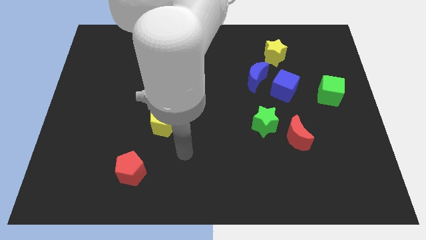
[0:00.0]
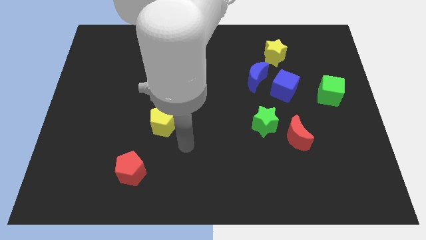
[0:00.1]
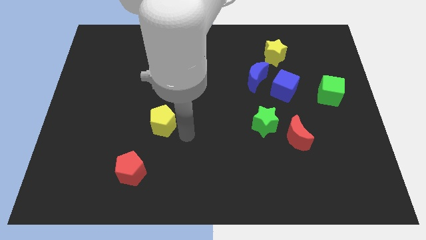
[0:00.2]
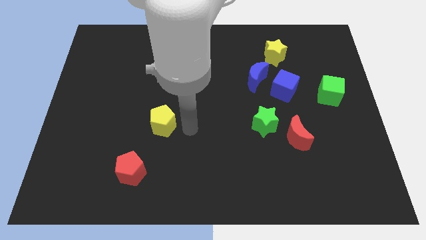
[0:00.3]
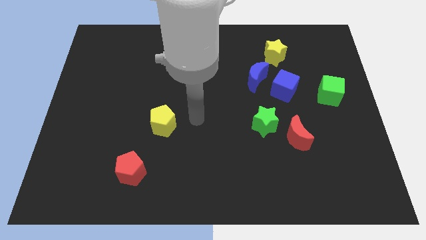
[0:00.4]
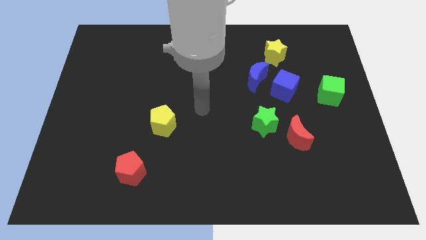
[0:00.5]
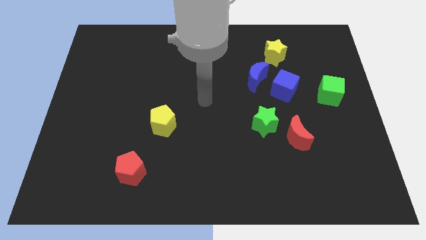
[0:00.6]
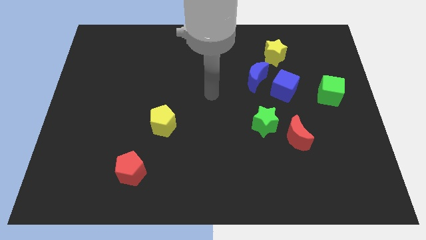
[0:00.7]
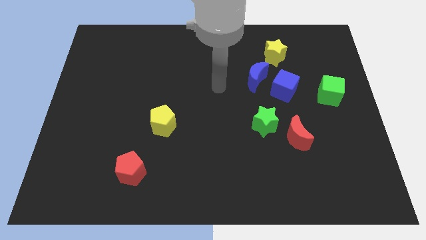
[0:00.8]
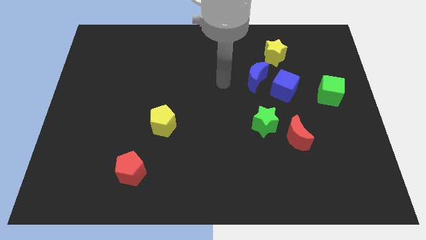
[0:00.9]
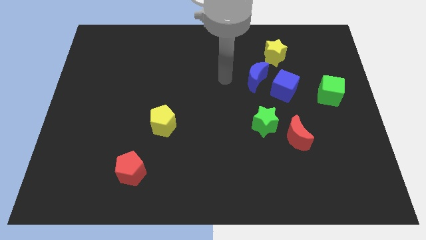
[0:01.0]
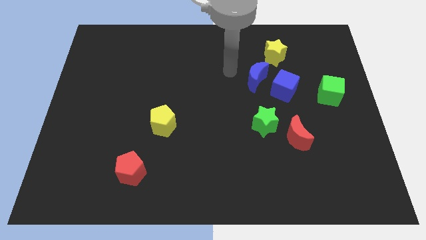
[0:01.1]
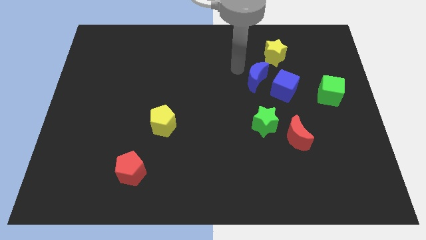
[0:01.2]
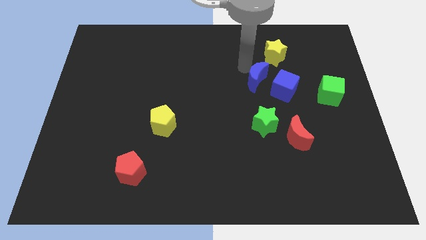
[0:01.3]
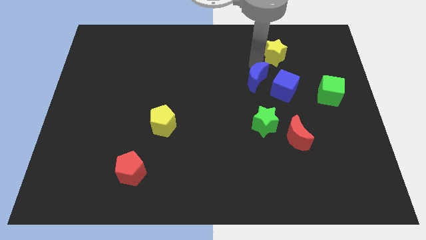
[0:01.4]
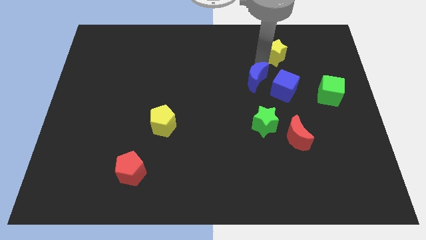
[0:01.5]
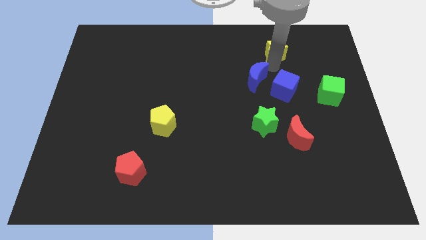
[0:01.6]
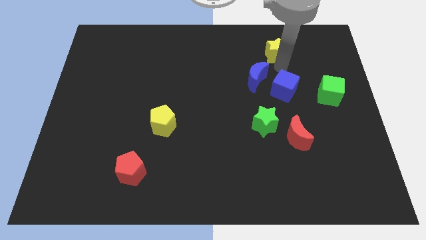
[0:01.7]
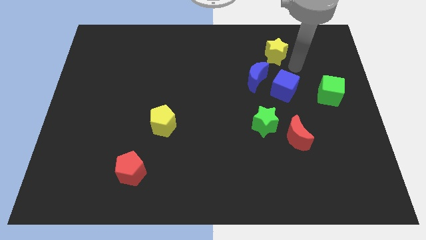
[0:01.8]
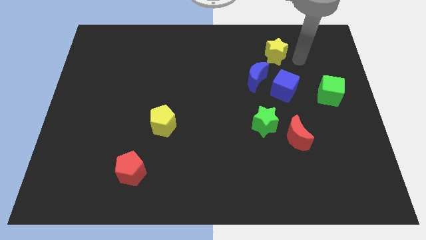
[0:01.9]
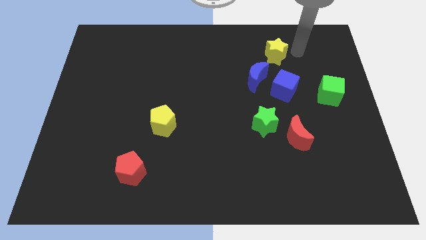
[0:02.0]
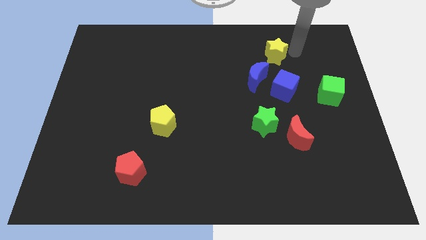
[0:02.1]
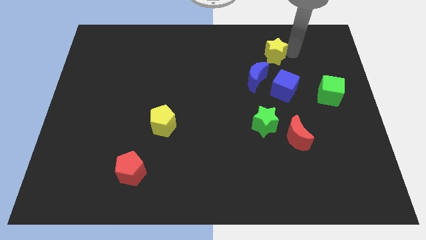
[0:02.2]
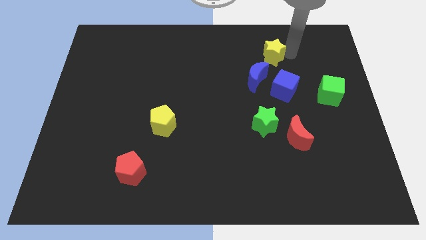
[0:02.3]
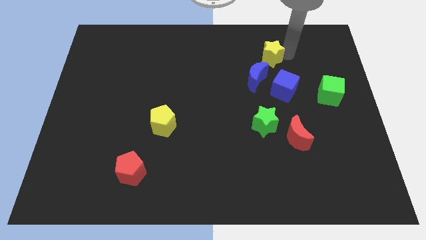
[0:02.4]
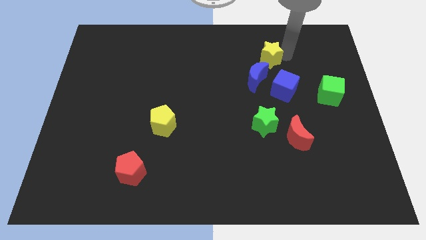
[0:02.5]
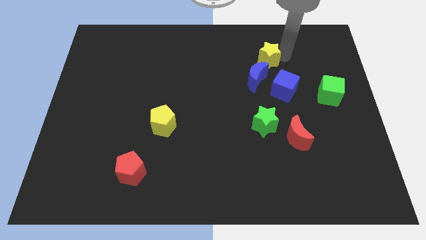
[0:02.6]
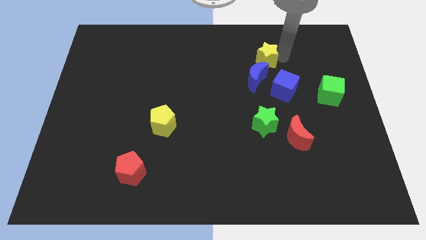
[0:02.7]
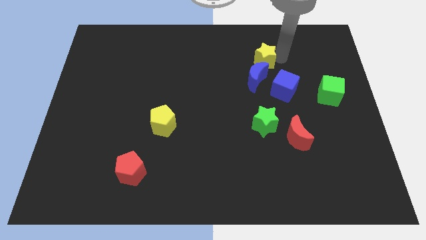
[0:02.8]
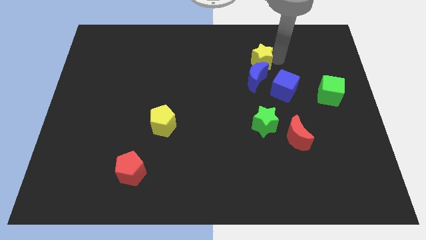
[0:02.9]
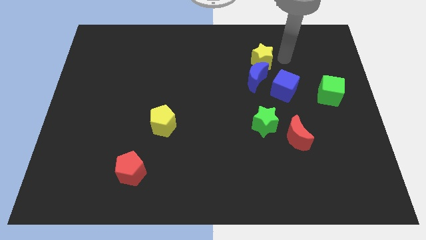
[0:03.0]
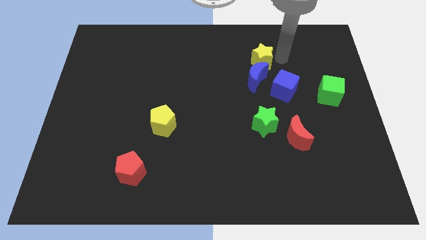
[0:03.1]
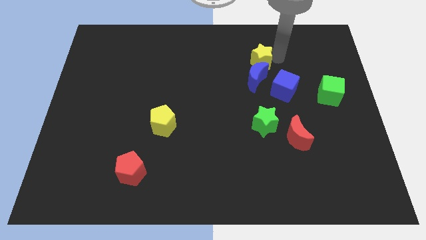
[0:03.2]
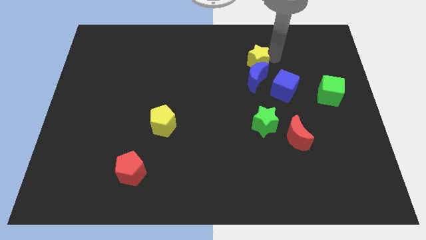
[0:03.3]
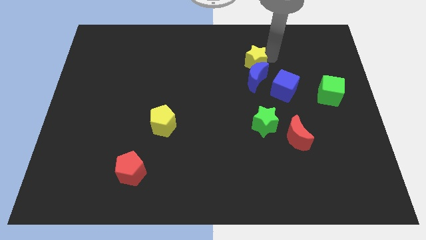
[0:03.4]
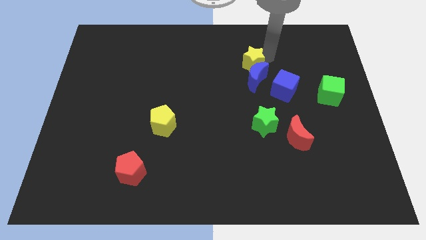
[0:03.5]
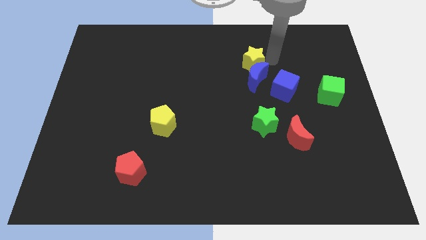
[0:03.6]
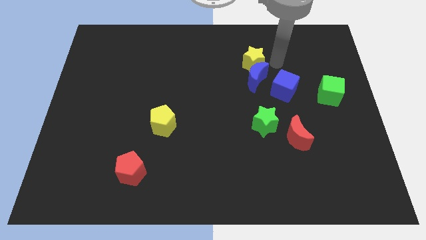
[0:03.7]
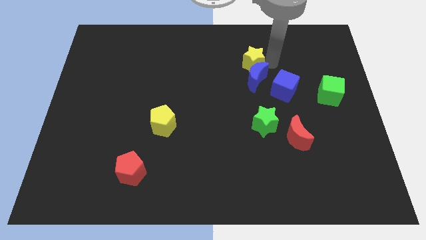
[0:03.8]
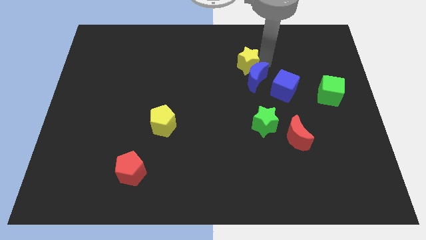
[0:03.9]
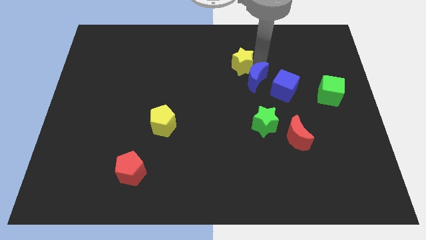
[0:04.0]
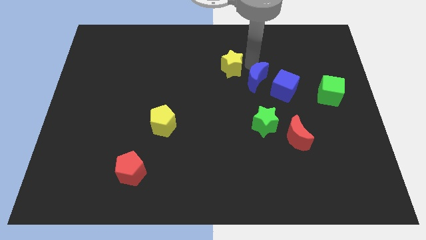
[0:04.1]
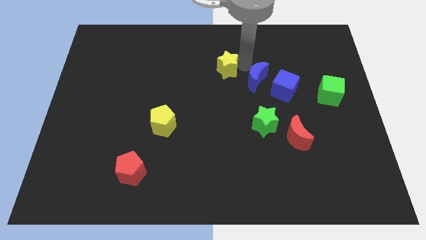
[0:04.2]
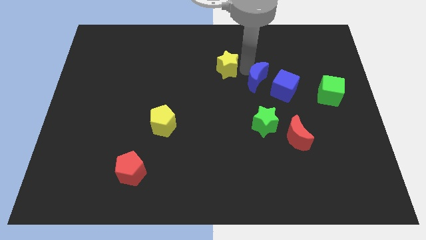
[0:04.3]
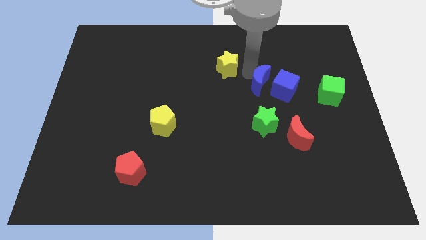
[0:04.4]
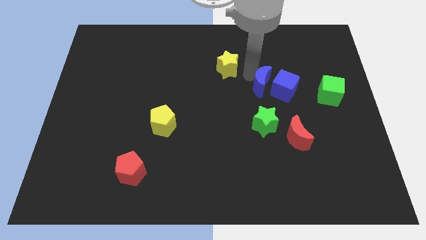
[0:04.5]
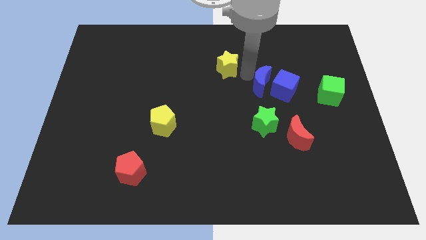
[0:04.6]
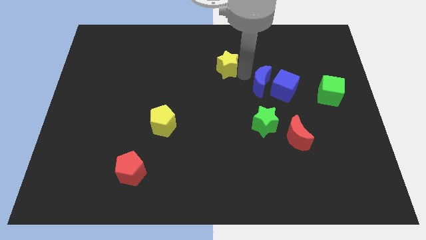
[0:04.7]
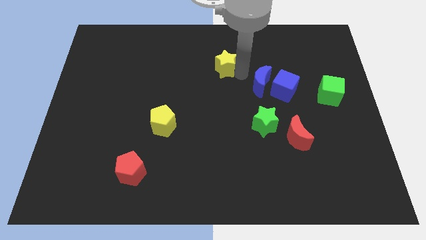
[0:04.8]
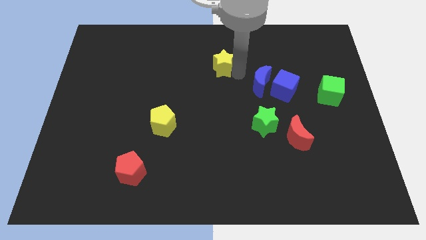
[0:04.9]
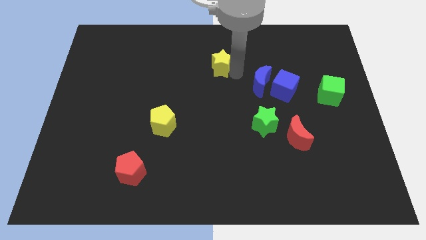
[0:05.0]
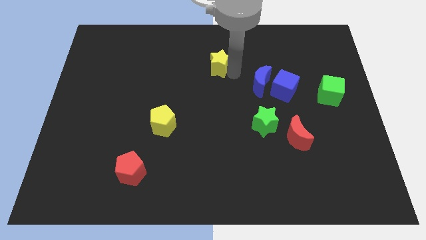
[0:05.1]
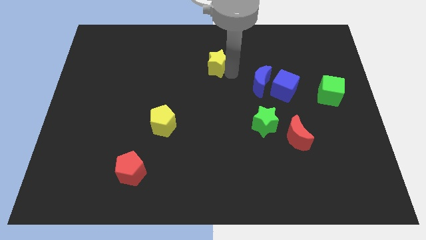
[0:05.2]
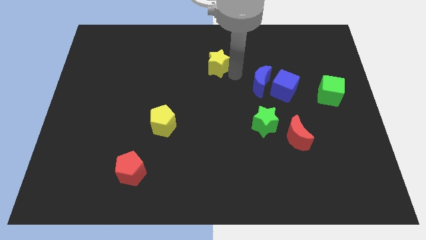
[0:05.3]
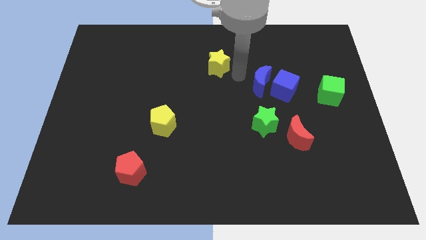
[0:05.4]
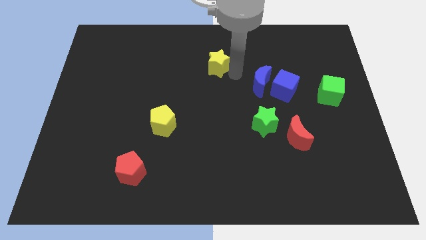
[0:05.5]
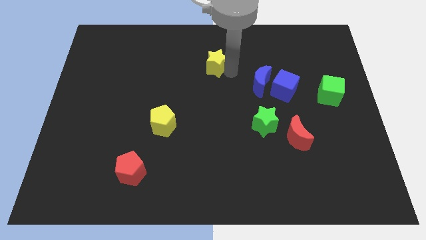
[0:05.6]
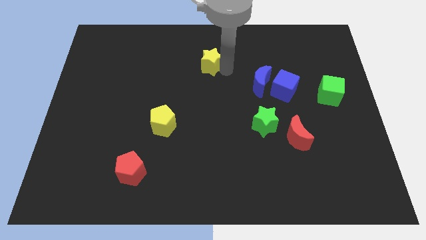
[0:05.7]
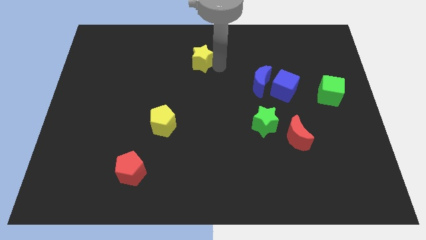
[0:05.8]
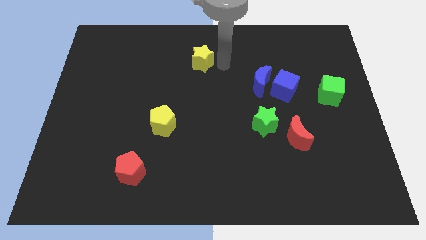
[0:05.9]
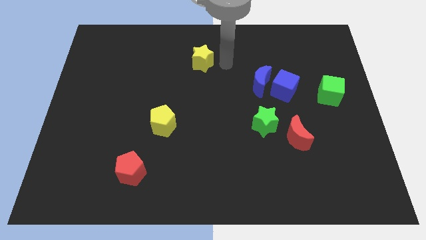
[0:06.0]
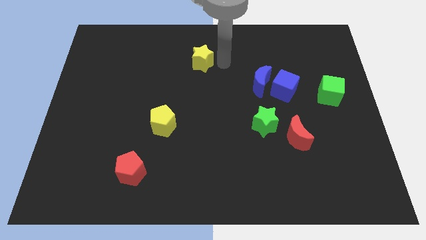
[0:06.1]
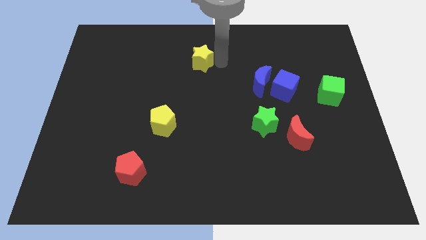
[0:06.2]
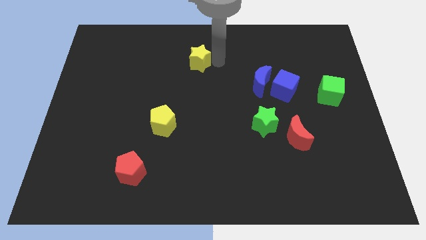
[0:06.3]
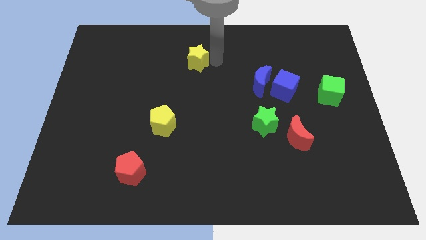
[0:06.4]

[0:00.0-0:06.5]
slide the yellow star left

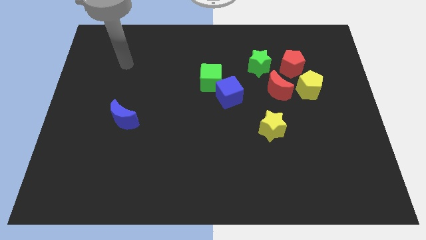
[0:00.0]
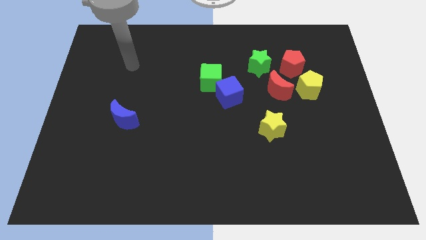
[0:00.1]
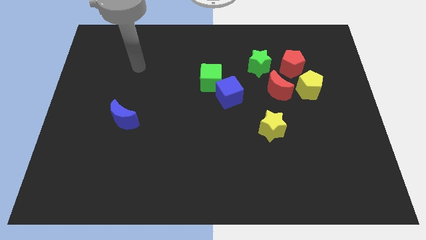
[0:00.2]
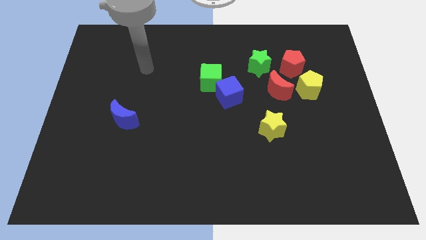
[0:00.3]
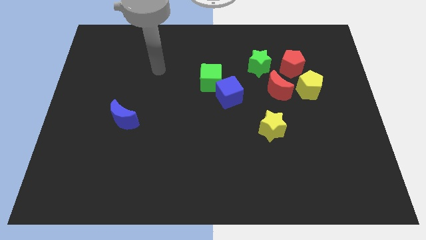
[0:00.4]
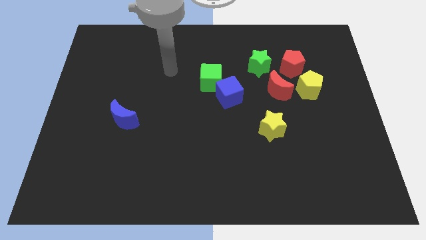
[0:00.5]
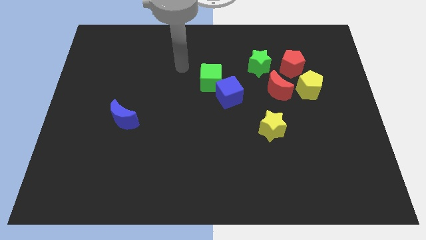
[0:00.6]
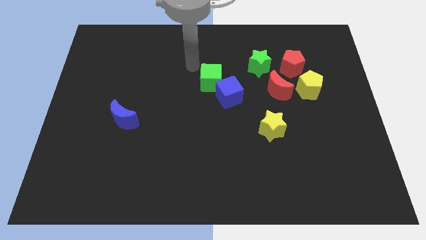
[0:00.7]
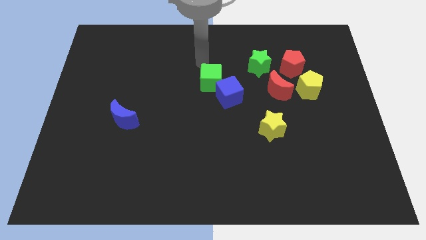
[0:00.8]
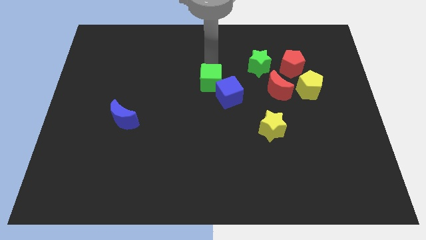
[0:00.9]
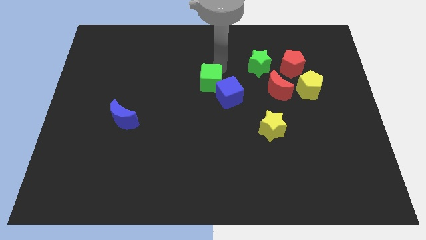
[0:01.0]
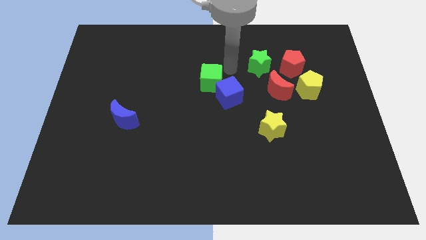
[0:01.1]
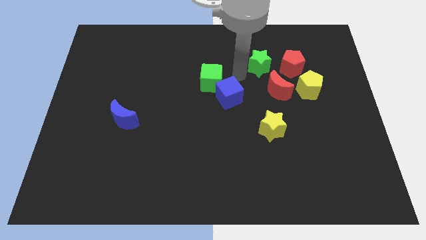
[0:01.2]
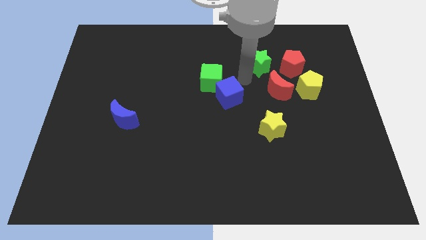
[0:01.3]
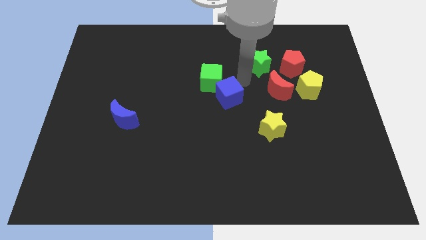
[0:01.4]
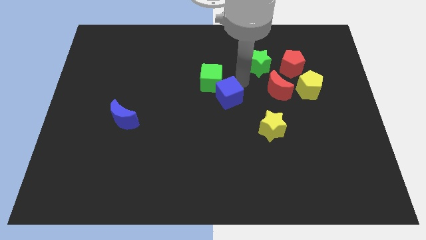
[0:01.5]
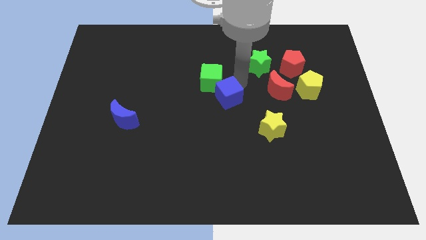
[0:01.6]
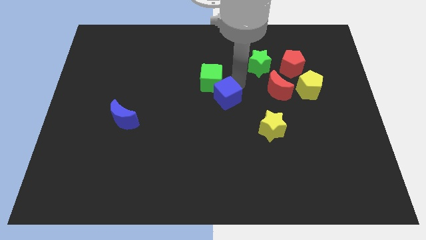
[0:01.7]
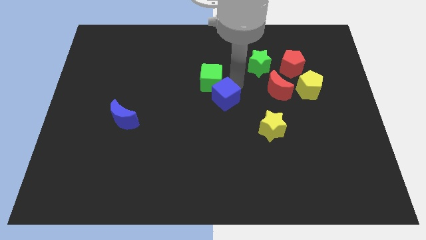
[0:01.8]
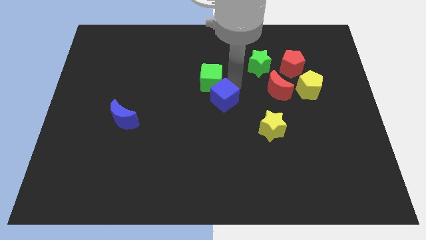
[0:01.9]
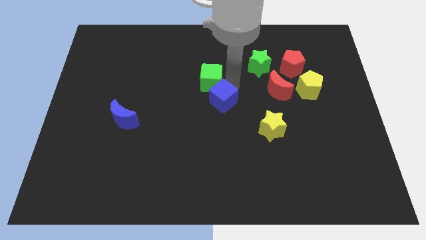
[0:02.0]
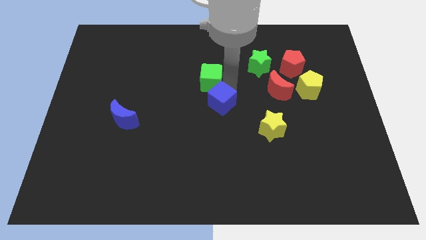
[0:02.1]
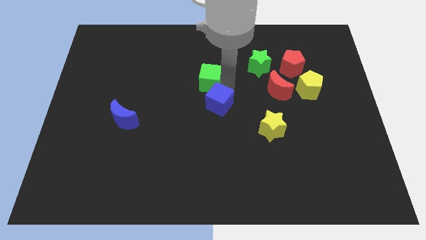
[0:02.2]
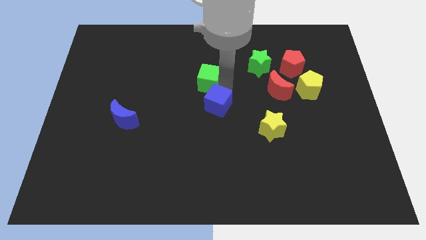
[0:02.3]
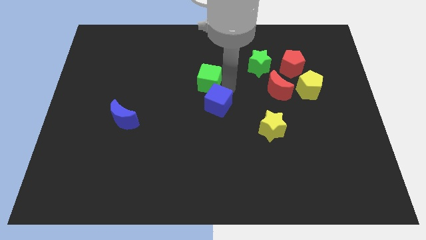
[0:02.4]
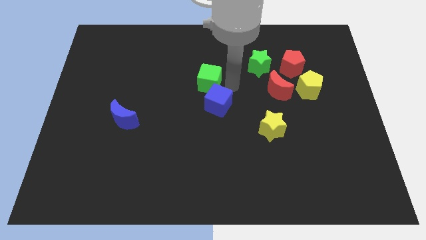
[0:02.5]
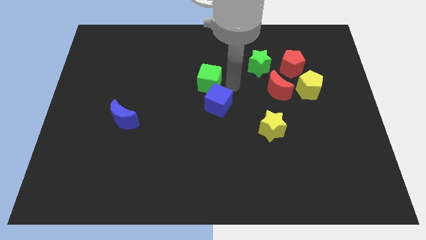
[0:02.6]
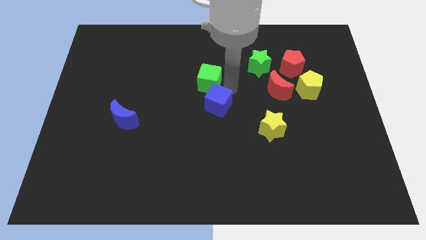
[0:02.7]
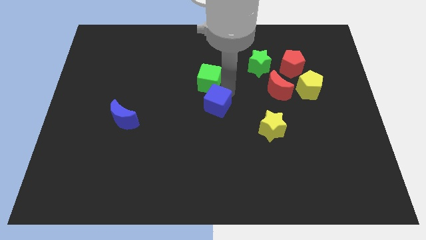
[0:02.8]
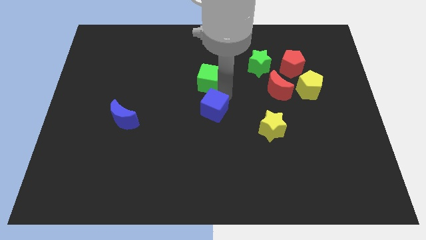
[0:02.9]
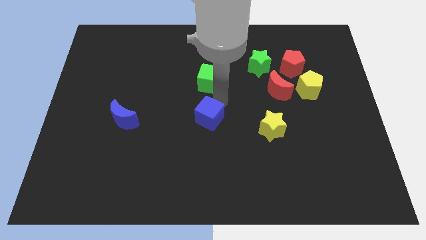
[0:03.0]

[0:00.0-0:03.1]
slightly move the blue cube downwards and left
